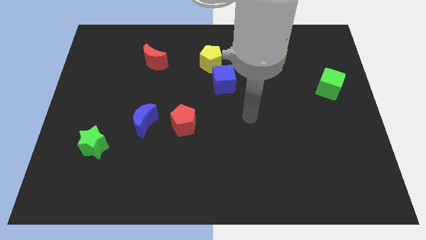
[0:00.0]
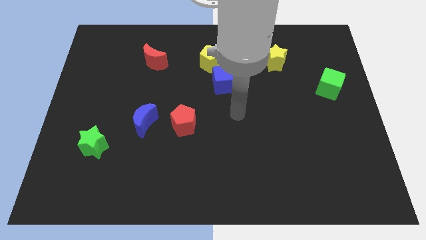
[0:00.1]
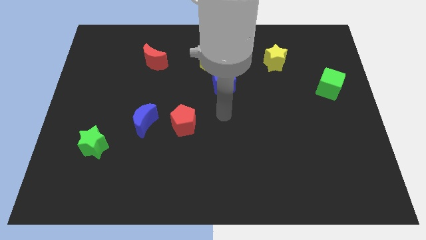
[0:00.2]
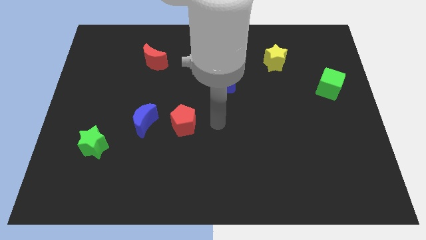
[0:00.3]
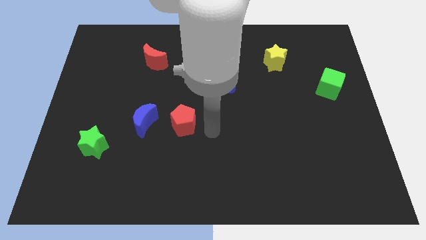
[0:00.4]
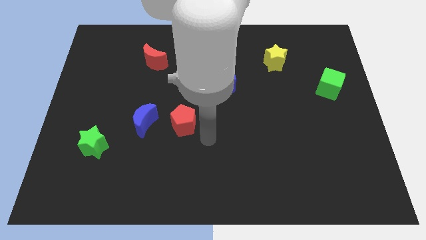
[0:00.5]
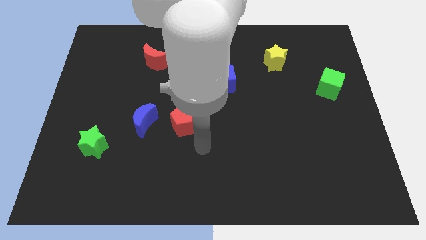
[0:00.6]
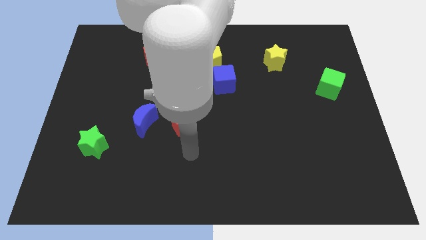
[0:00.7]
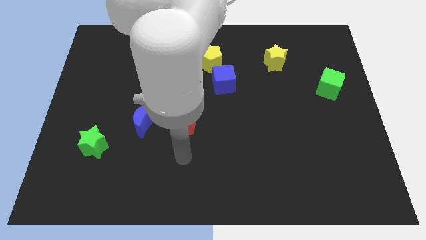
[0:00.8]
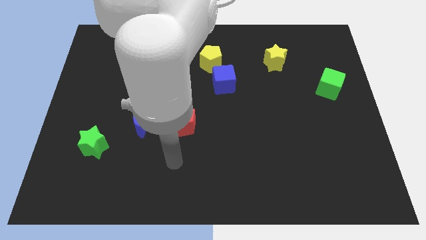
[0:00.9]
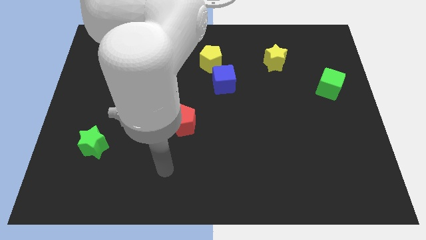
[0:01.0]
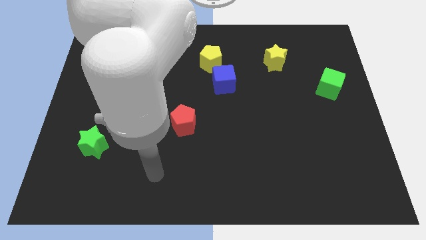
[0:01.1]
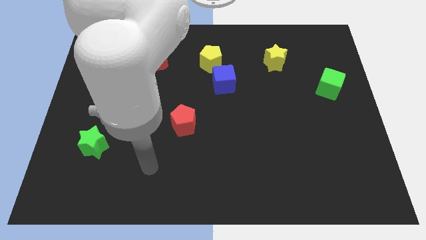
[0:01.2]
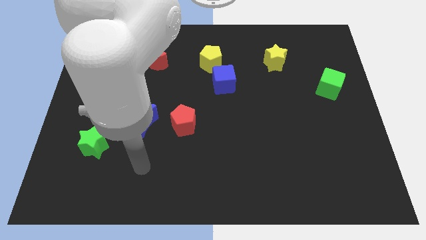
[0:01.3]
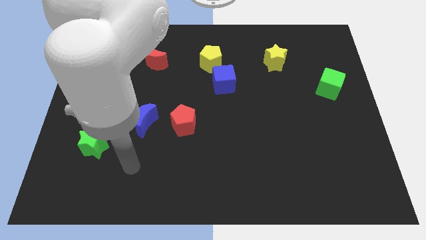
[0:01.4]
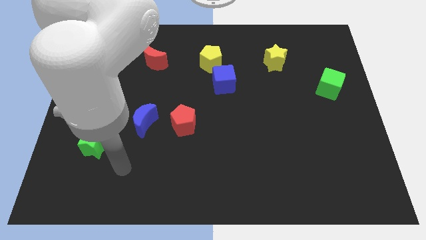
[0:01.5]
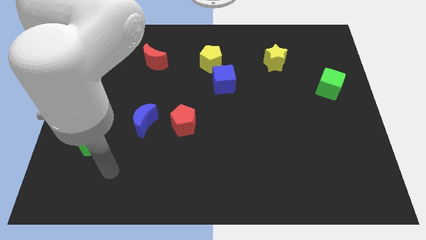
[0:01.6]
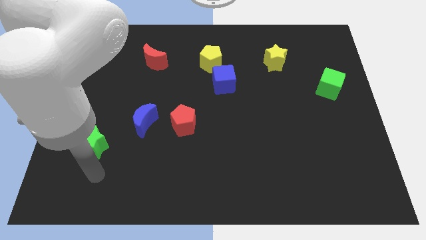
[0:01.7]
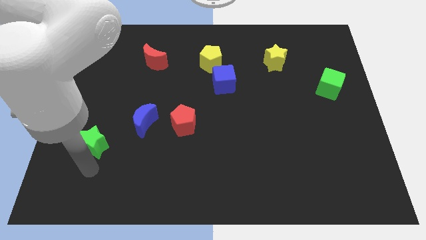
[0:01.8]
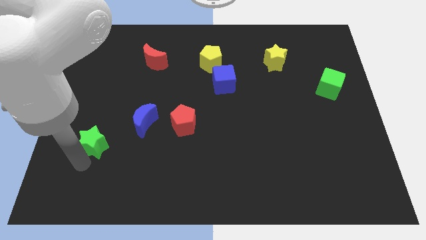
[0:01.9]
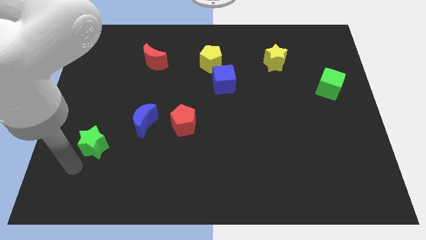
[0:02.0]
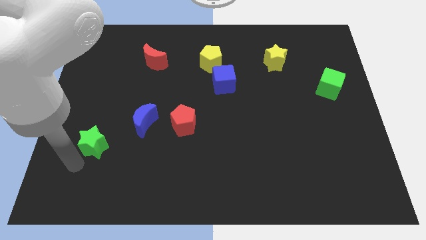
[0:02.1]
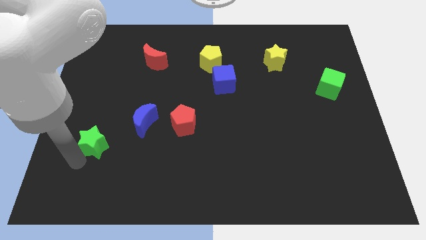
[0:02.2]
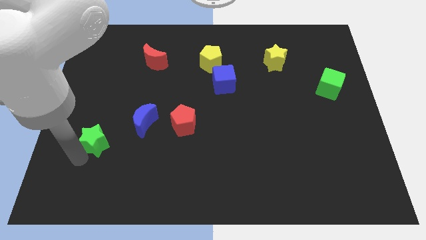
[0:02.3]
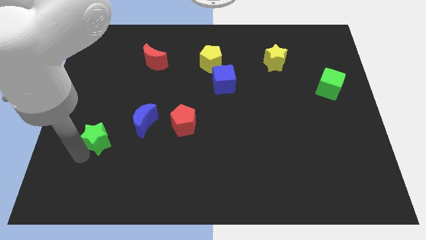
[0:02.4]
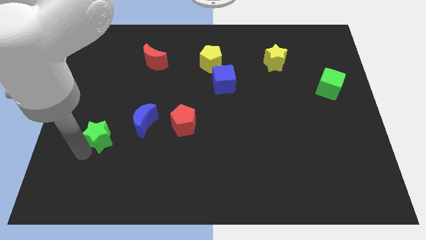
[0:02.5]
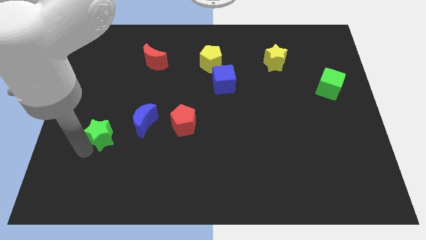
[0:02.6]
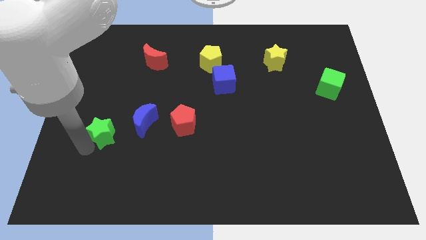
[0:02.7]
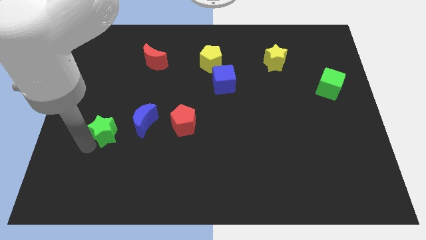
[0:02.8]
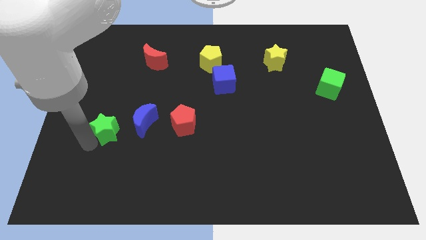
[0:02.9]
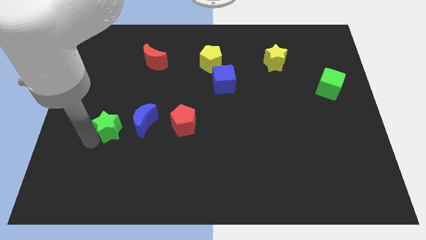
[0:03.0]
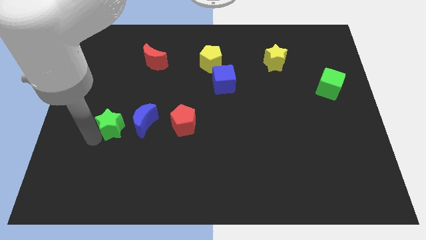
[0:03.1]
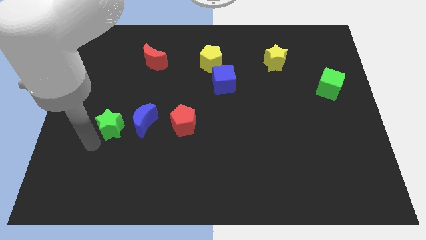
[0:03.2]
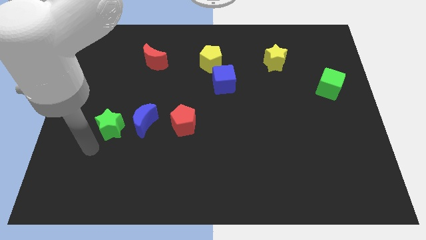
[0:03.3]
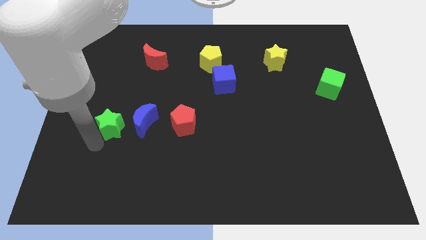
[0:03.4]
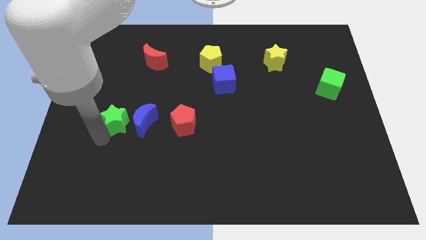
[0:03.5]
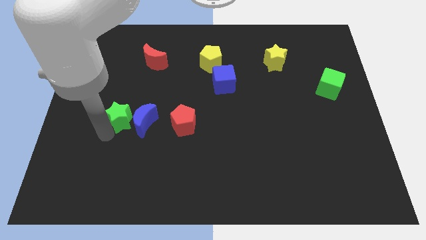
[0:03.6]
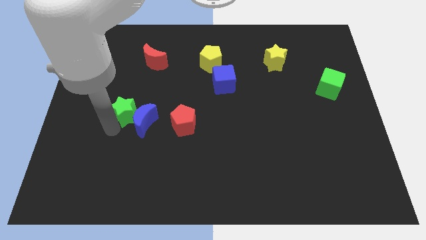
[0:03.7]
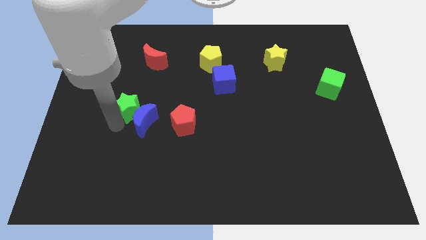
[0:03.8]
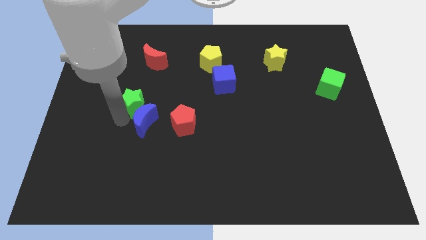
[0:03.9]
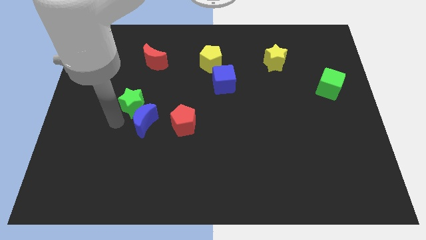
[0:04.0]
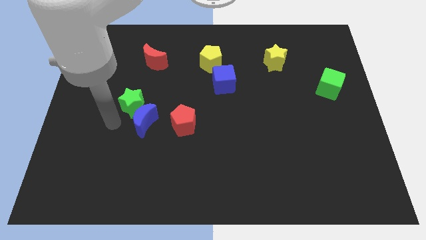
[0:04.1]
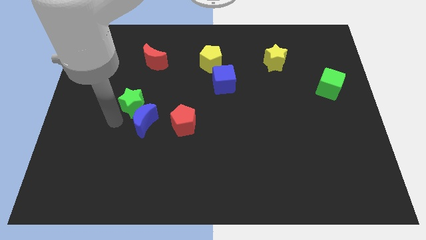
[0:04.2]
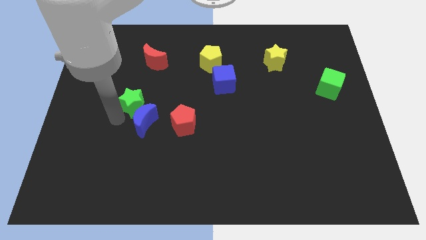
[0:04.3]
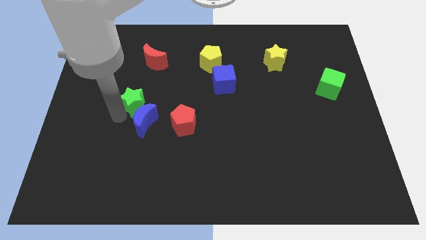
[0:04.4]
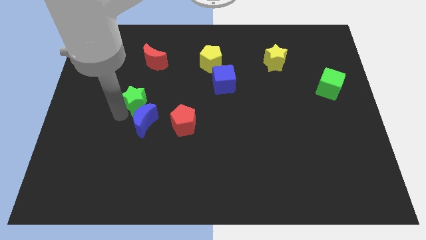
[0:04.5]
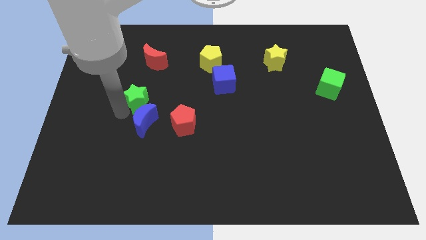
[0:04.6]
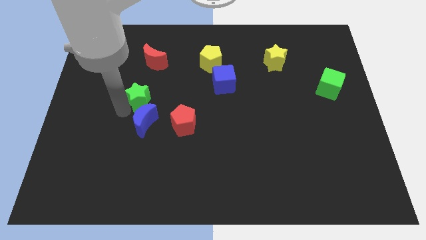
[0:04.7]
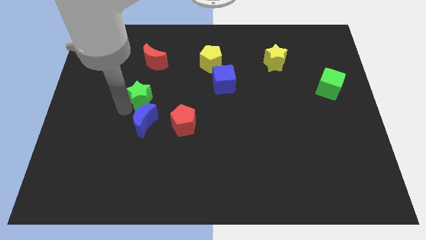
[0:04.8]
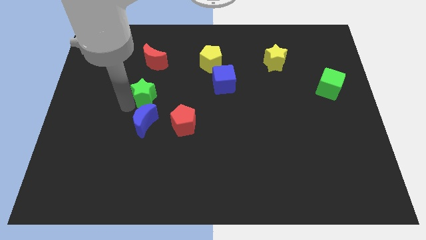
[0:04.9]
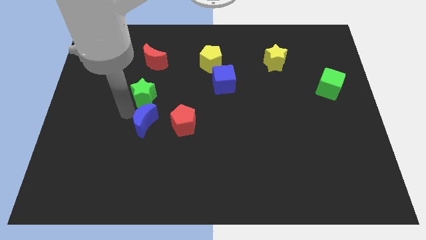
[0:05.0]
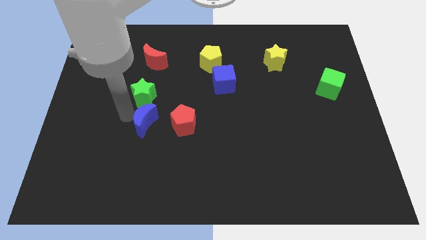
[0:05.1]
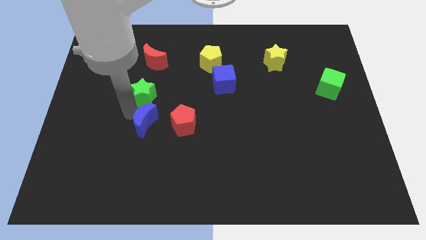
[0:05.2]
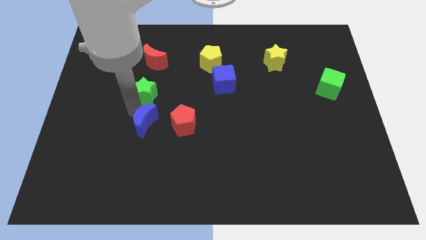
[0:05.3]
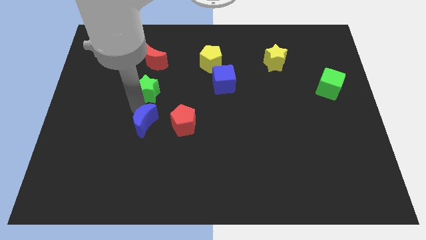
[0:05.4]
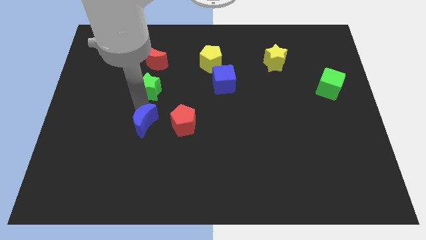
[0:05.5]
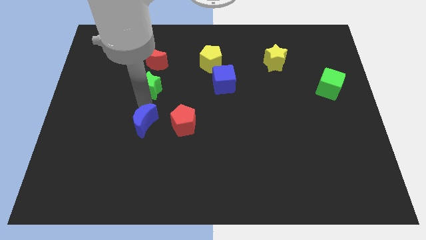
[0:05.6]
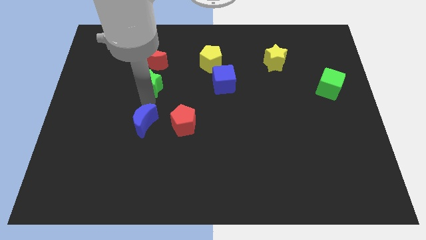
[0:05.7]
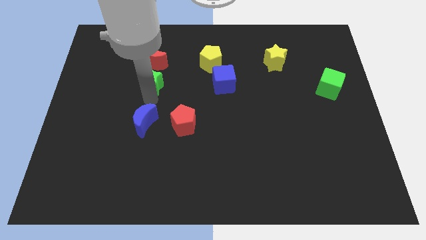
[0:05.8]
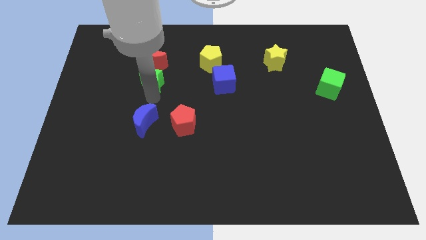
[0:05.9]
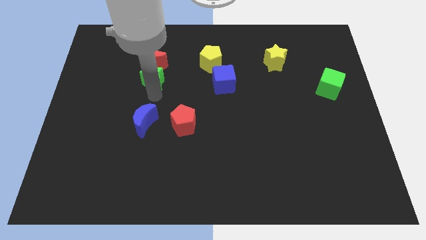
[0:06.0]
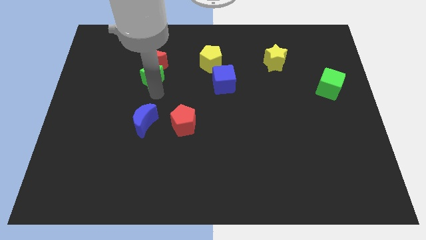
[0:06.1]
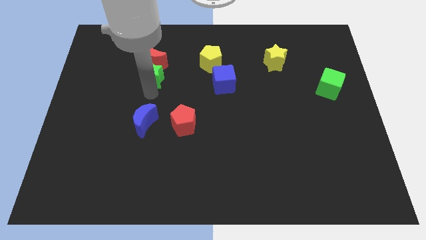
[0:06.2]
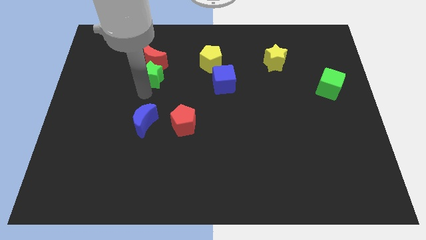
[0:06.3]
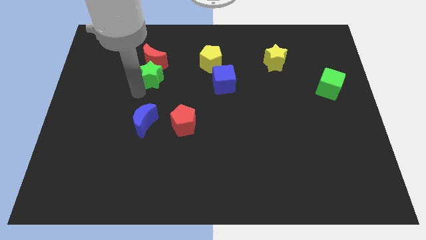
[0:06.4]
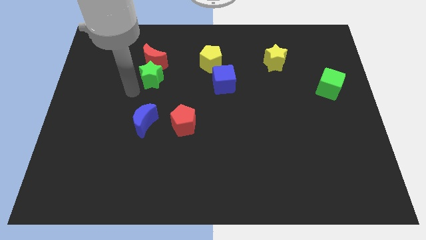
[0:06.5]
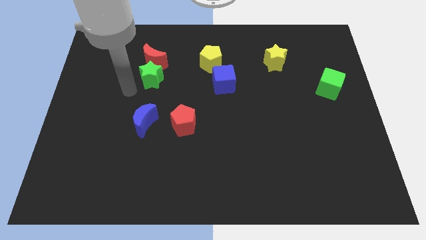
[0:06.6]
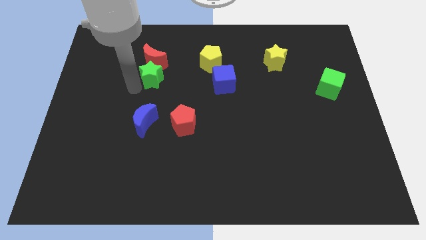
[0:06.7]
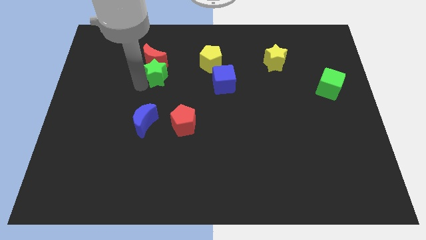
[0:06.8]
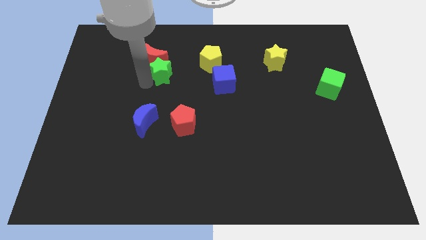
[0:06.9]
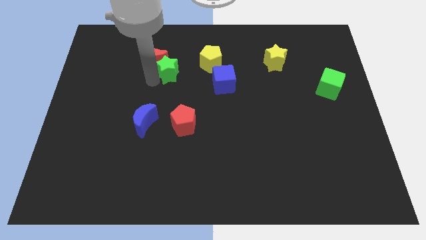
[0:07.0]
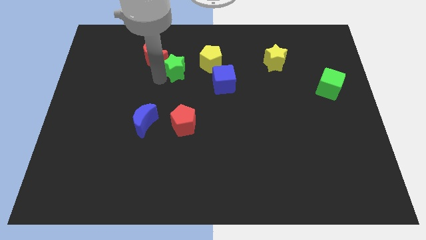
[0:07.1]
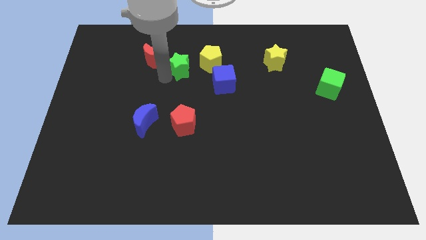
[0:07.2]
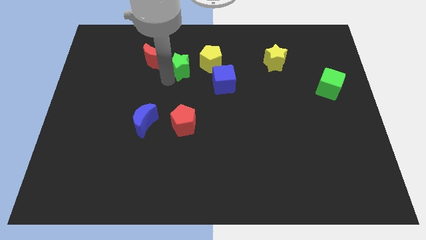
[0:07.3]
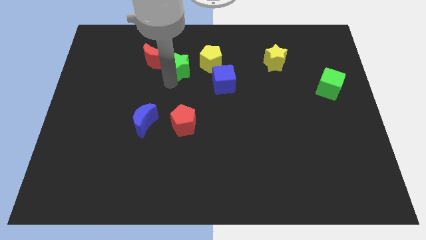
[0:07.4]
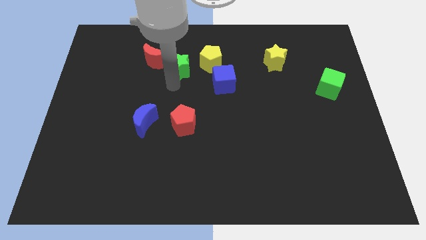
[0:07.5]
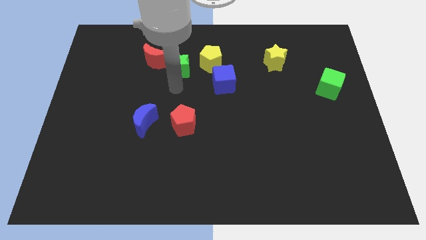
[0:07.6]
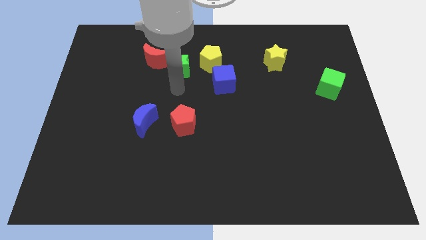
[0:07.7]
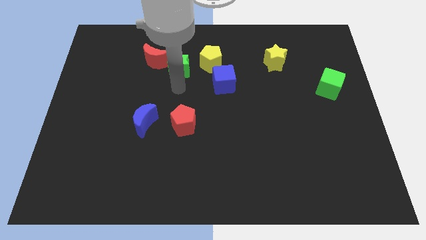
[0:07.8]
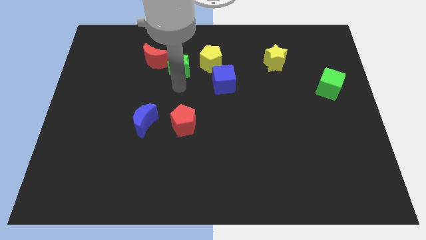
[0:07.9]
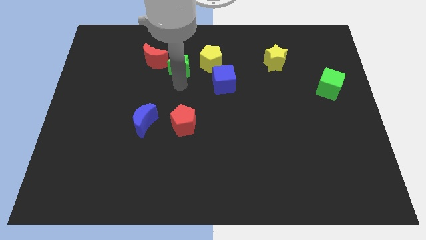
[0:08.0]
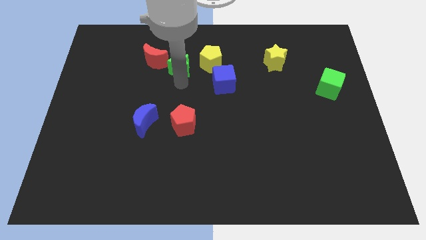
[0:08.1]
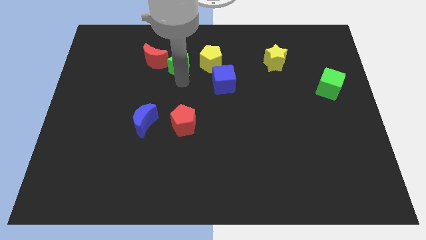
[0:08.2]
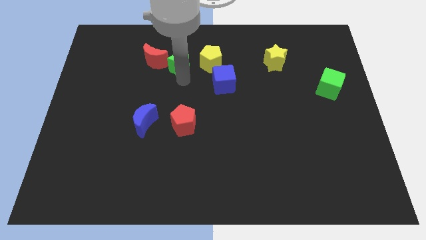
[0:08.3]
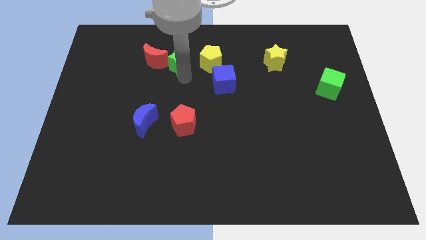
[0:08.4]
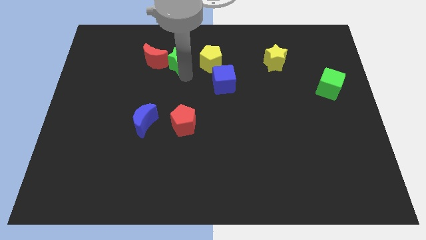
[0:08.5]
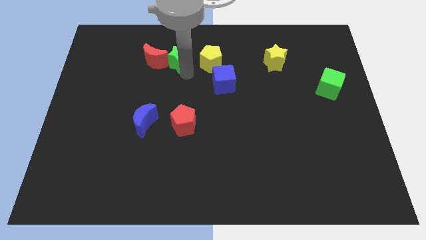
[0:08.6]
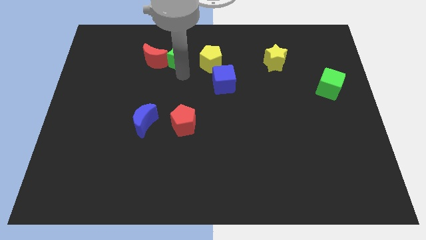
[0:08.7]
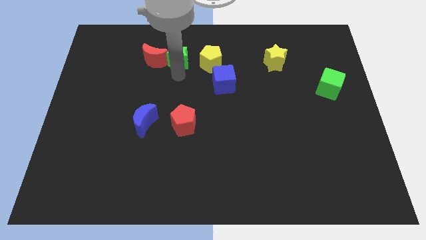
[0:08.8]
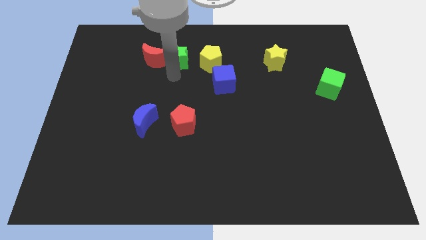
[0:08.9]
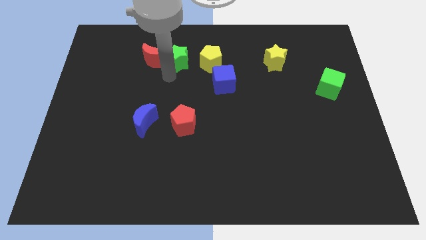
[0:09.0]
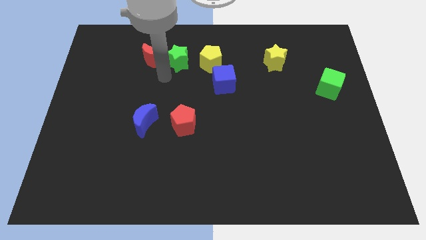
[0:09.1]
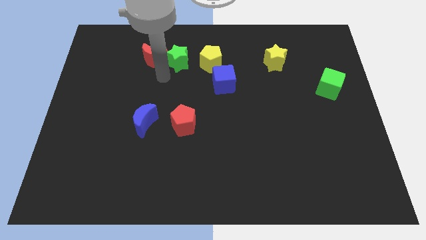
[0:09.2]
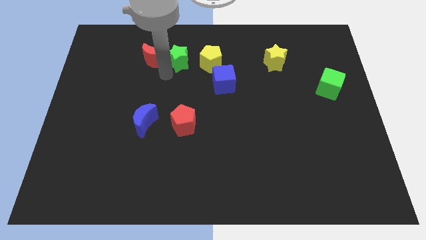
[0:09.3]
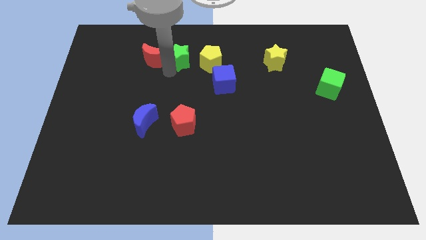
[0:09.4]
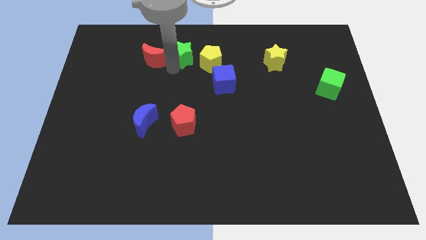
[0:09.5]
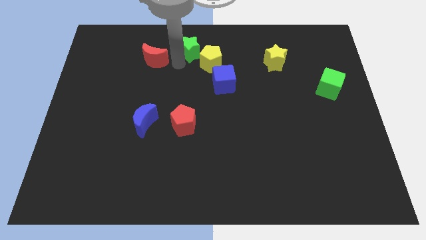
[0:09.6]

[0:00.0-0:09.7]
put the green star to the top
